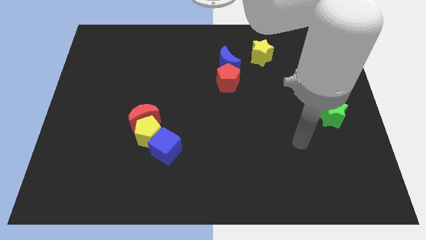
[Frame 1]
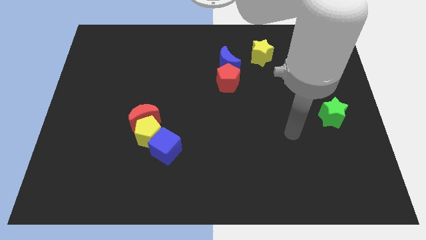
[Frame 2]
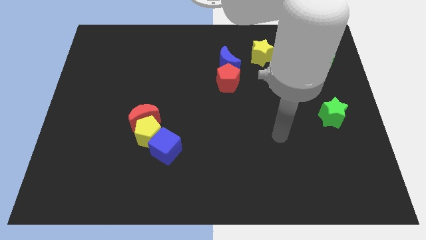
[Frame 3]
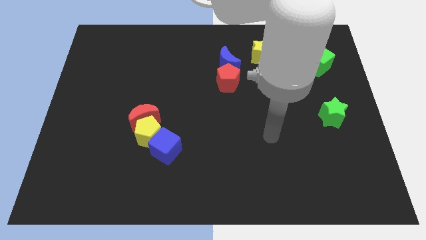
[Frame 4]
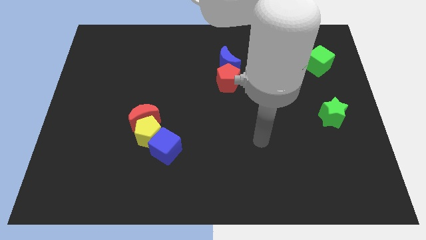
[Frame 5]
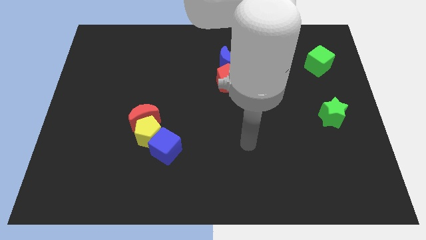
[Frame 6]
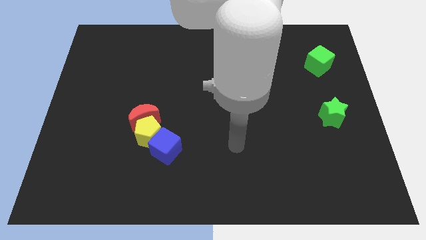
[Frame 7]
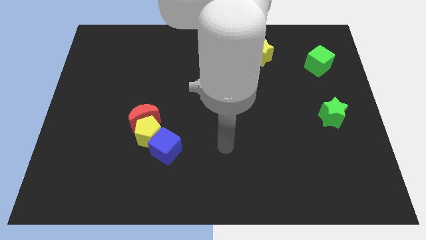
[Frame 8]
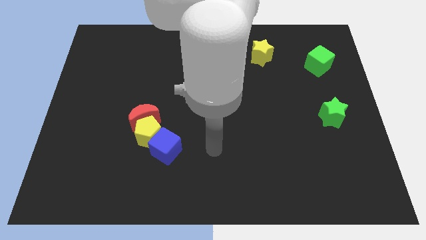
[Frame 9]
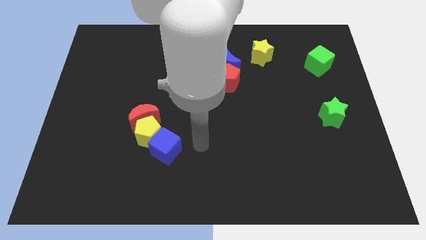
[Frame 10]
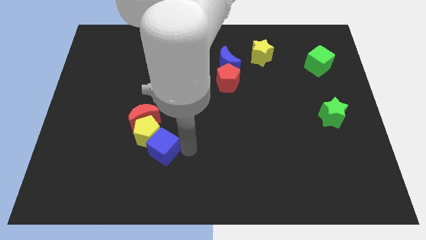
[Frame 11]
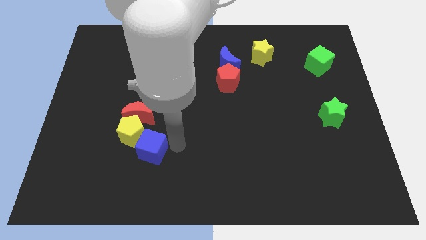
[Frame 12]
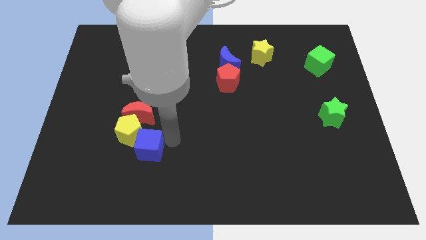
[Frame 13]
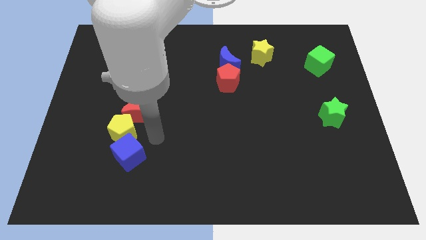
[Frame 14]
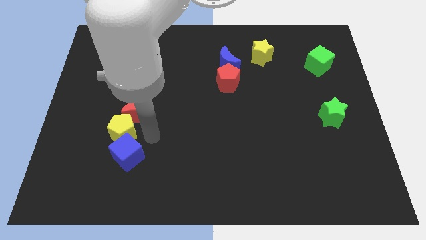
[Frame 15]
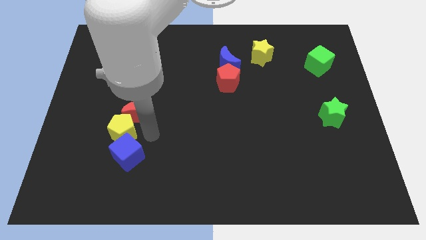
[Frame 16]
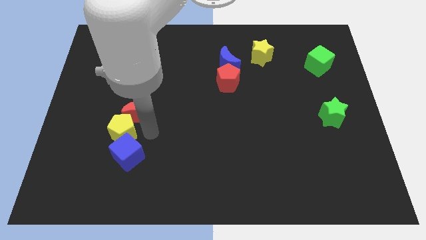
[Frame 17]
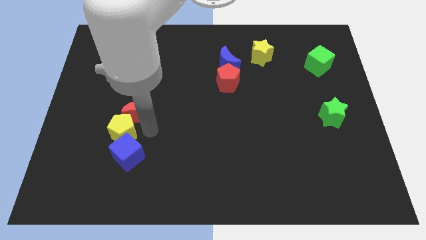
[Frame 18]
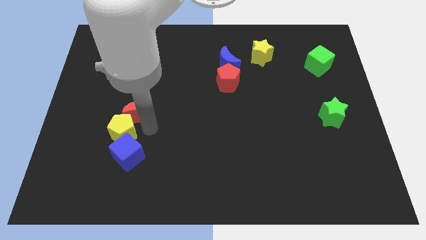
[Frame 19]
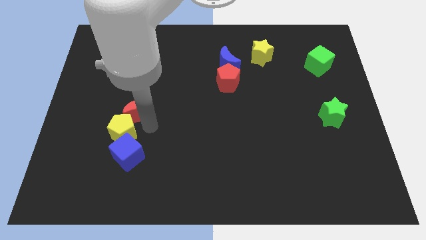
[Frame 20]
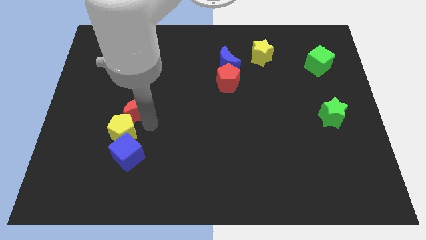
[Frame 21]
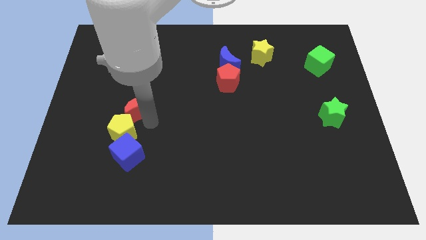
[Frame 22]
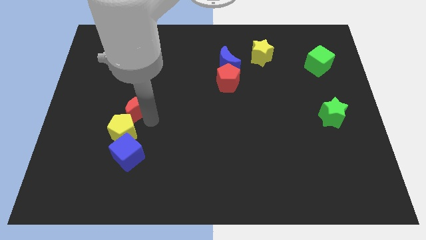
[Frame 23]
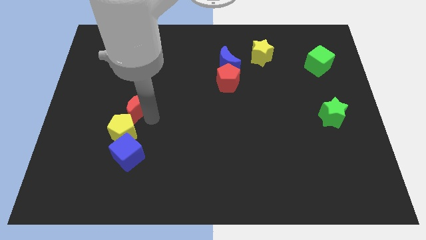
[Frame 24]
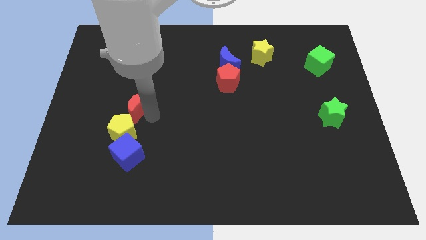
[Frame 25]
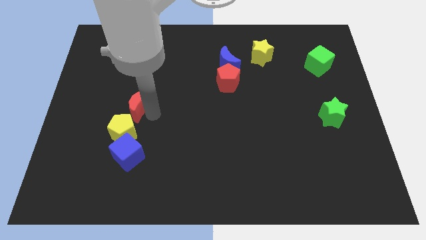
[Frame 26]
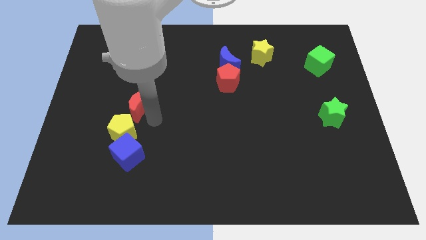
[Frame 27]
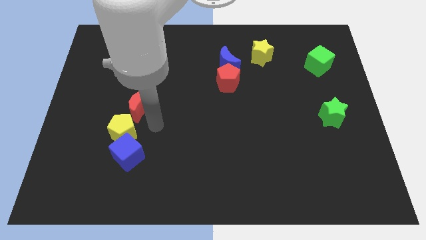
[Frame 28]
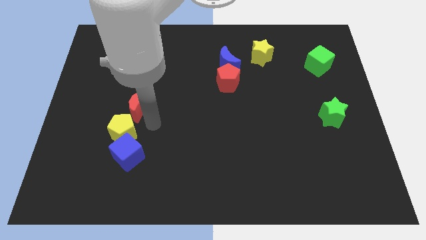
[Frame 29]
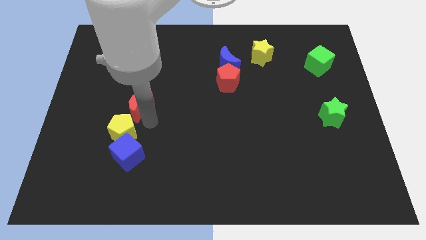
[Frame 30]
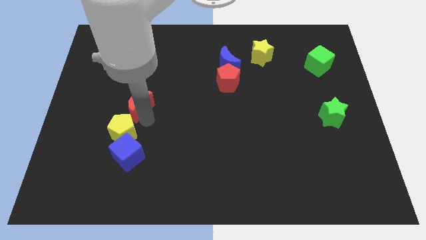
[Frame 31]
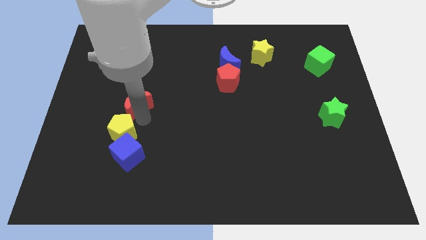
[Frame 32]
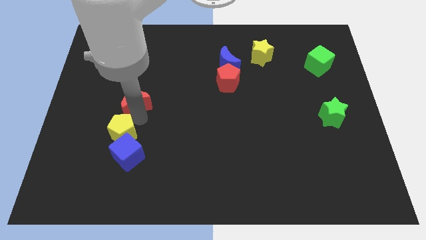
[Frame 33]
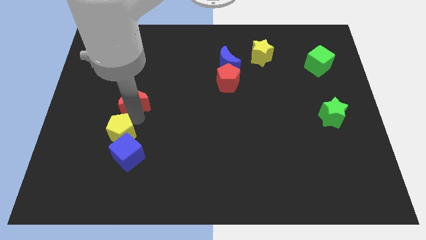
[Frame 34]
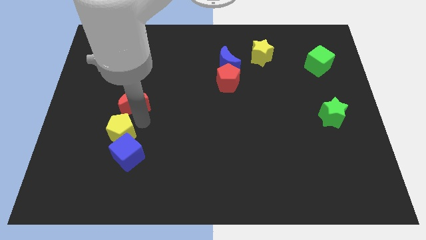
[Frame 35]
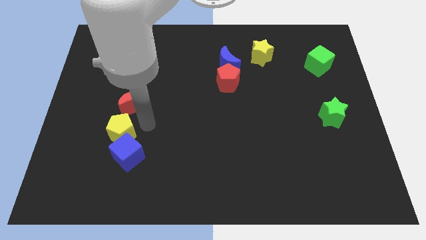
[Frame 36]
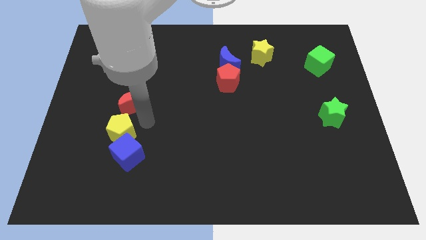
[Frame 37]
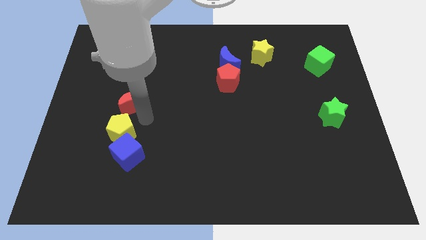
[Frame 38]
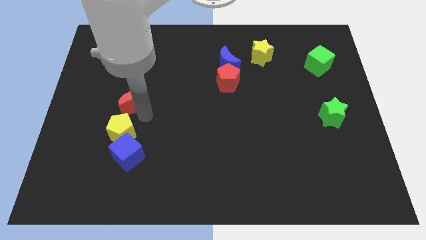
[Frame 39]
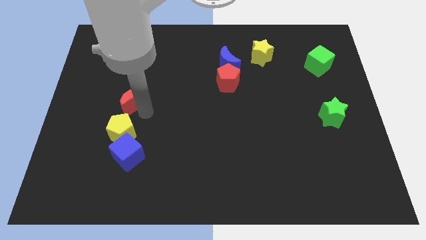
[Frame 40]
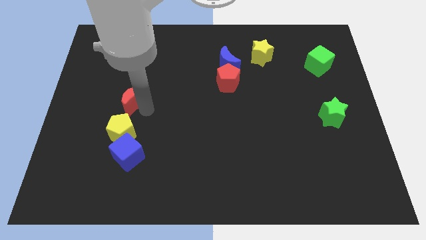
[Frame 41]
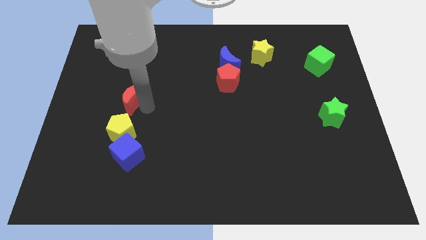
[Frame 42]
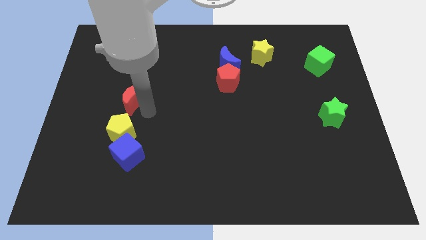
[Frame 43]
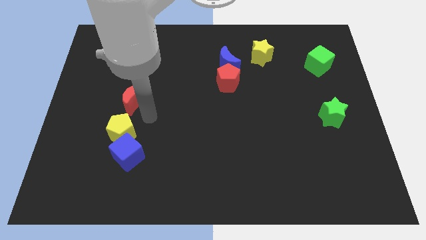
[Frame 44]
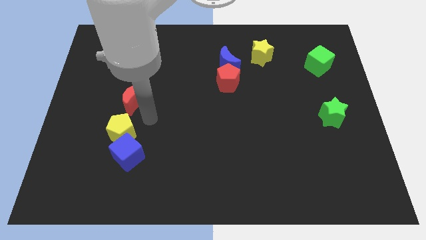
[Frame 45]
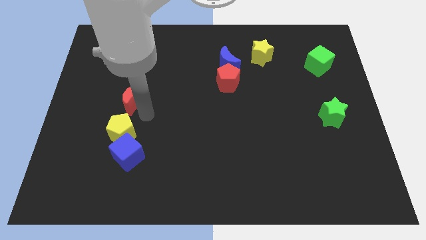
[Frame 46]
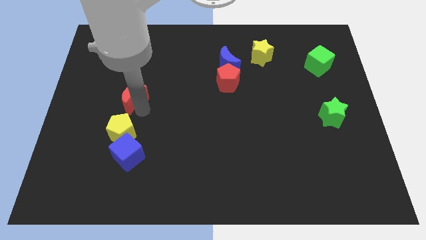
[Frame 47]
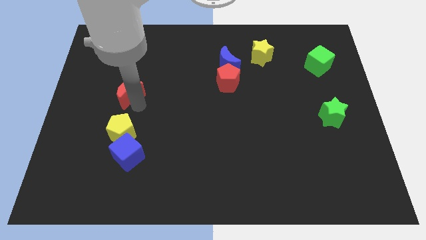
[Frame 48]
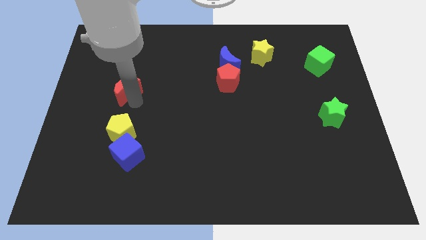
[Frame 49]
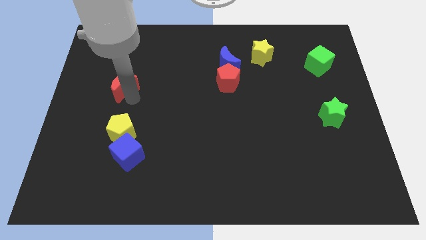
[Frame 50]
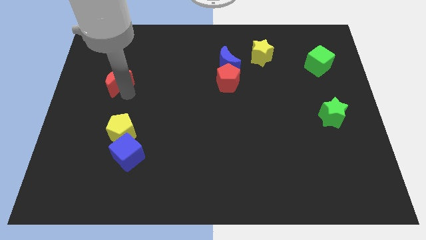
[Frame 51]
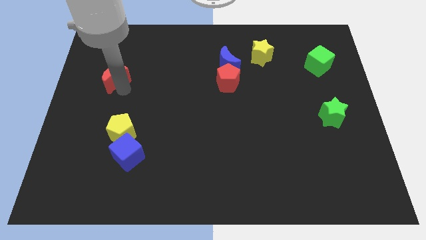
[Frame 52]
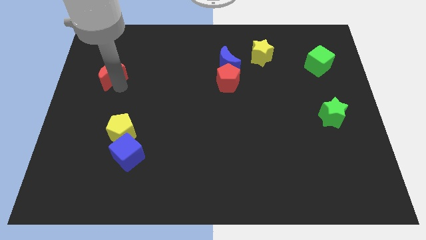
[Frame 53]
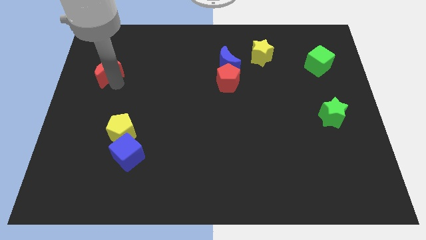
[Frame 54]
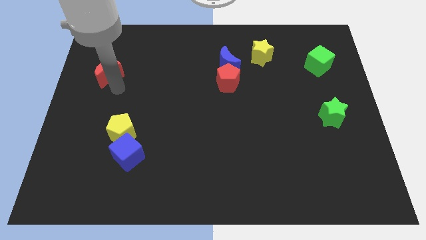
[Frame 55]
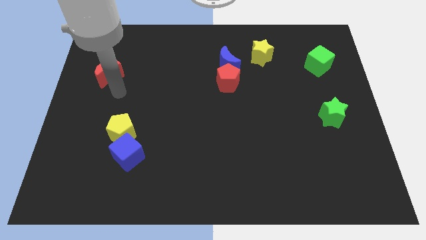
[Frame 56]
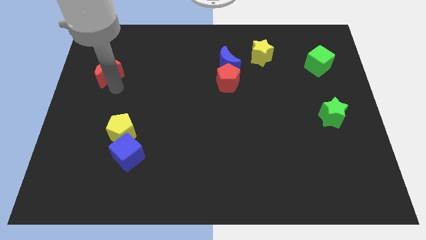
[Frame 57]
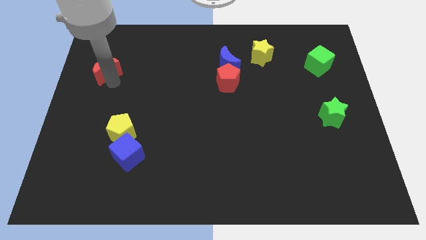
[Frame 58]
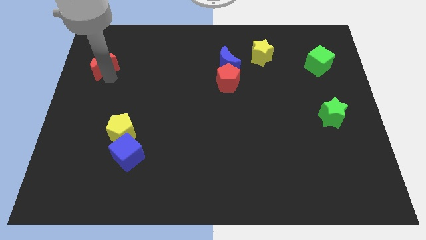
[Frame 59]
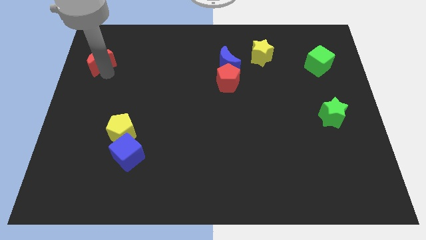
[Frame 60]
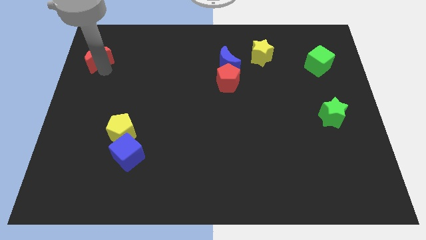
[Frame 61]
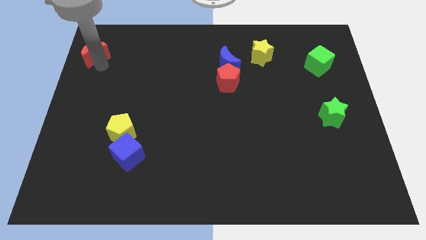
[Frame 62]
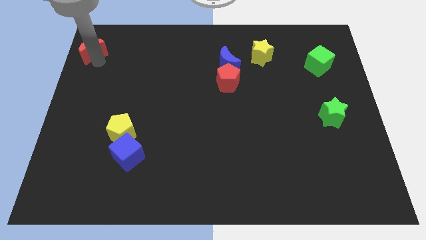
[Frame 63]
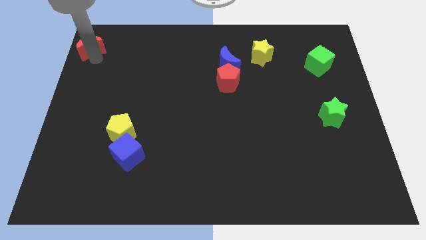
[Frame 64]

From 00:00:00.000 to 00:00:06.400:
slide the red moon to the top left of the board

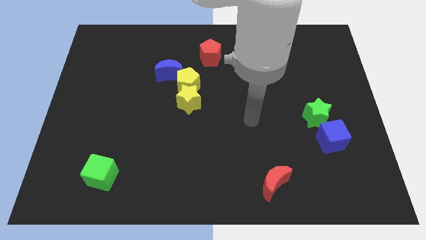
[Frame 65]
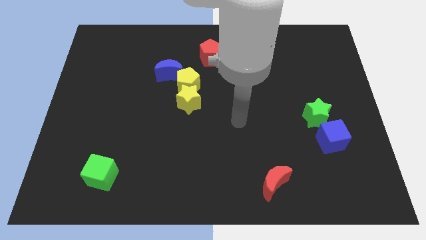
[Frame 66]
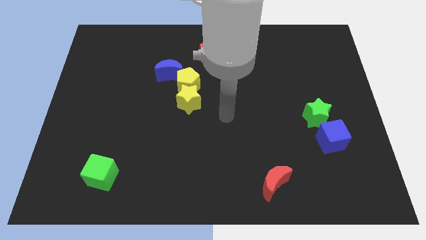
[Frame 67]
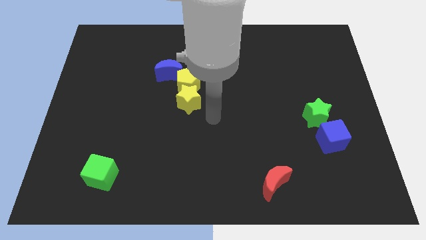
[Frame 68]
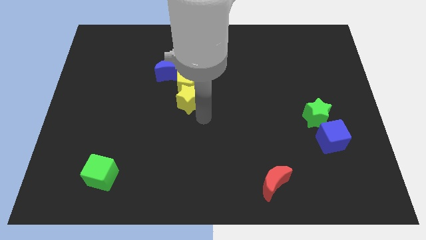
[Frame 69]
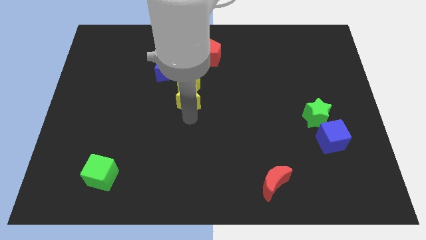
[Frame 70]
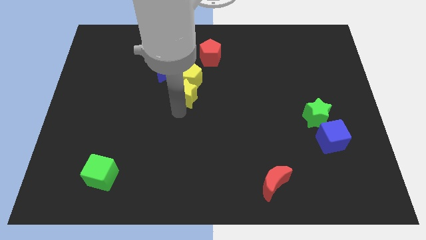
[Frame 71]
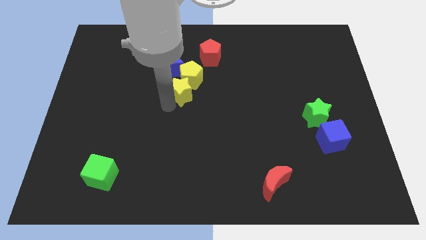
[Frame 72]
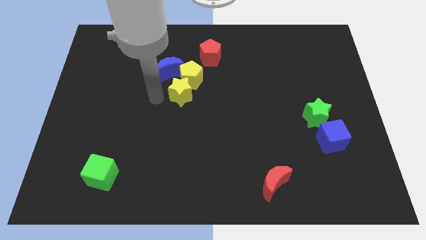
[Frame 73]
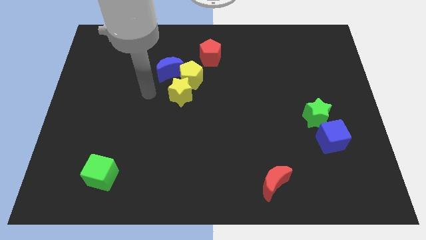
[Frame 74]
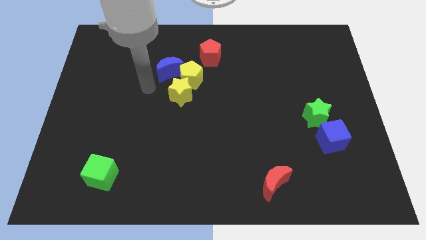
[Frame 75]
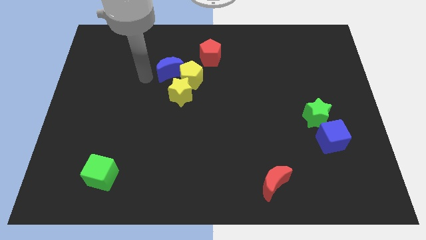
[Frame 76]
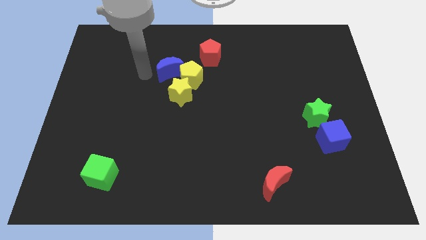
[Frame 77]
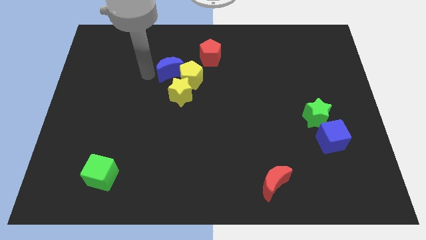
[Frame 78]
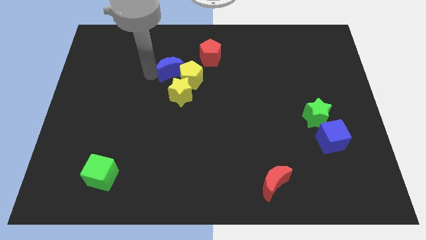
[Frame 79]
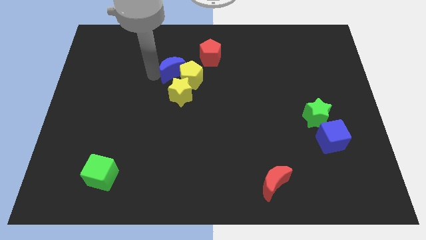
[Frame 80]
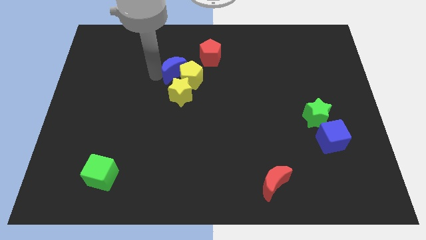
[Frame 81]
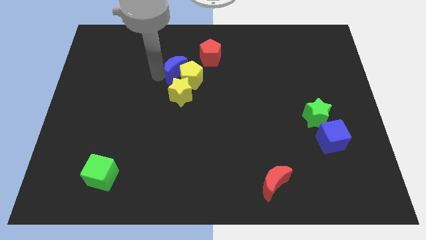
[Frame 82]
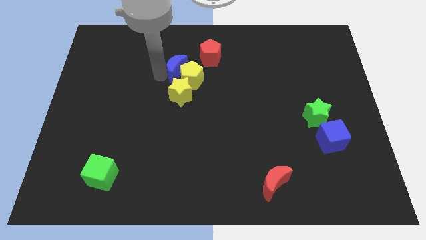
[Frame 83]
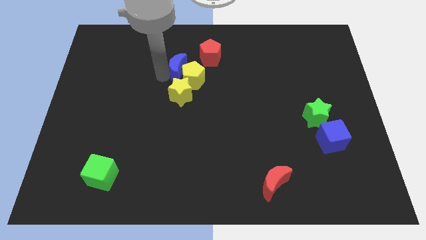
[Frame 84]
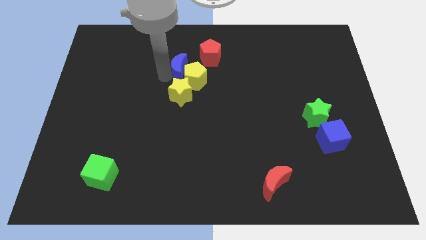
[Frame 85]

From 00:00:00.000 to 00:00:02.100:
put the blue moon to the middle of the board
